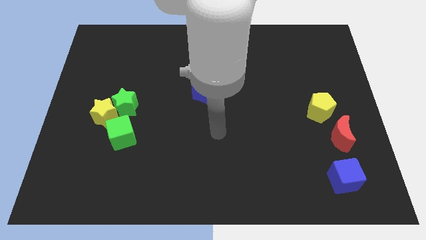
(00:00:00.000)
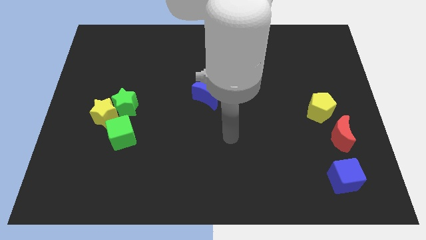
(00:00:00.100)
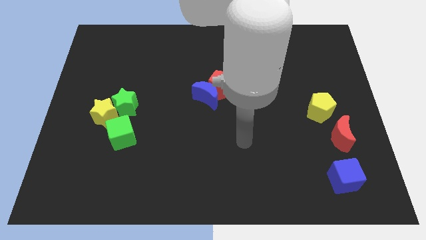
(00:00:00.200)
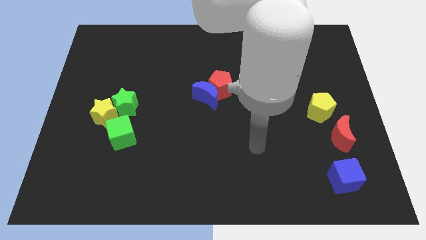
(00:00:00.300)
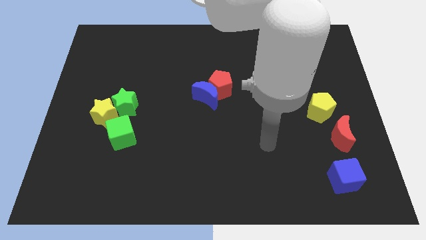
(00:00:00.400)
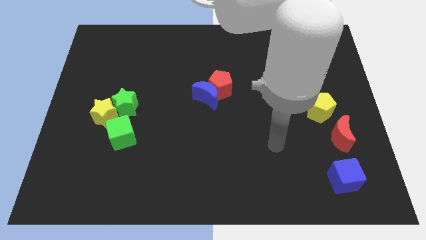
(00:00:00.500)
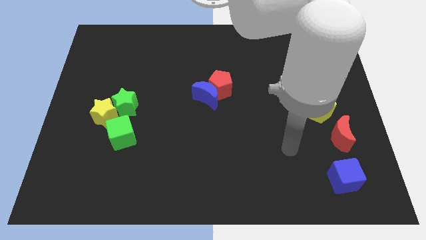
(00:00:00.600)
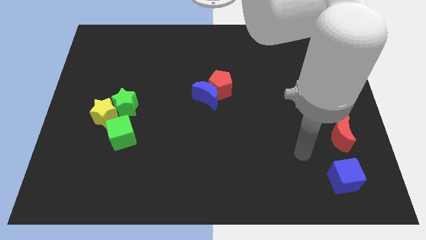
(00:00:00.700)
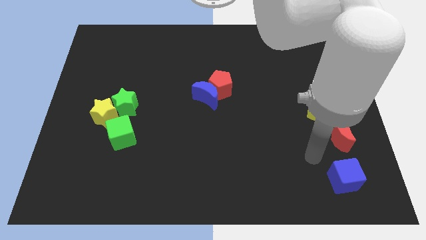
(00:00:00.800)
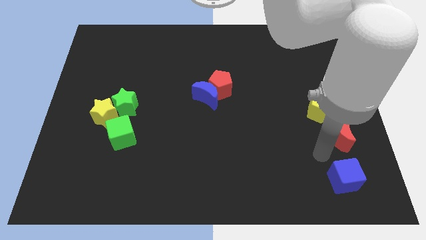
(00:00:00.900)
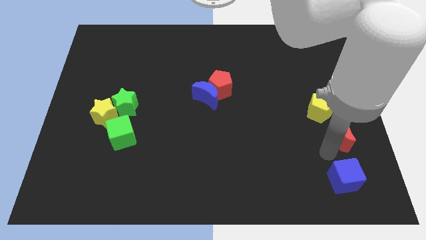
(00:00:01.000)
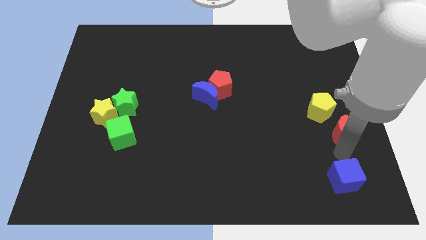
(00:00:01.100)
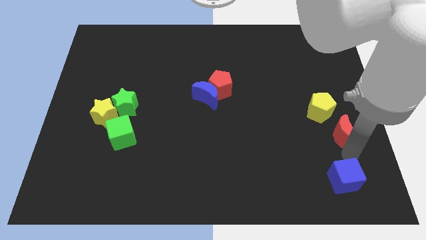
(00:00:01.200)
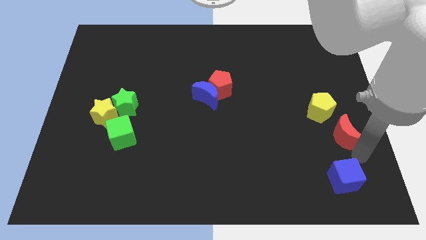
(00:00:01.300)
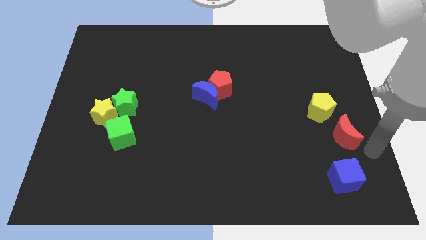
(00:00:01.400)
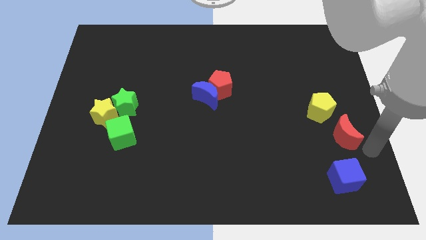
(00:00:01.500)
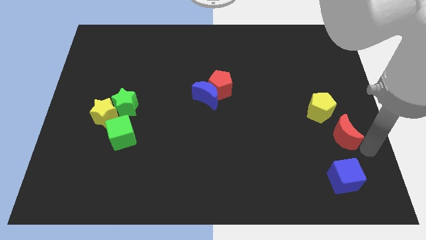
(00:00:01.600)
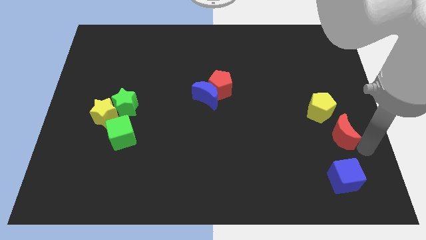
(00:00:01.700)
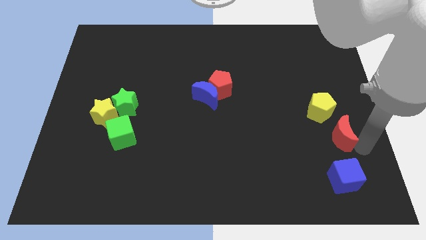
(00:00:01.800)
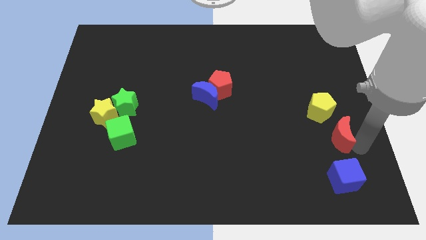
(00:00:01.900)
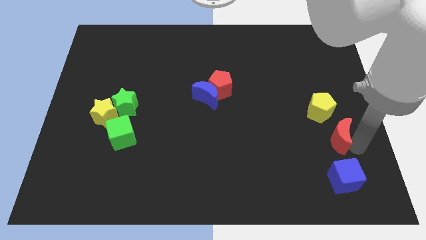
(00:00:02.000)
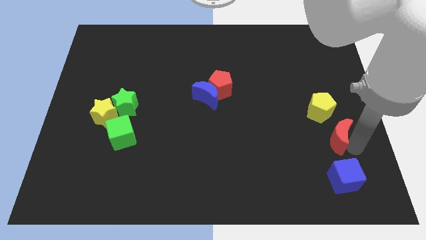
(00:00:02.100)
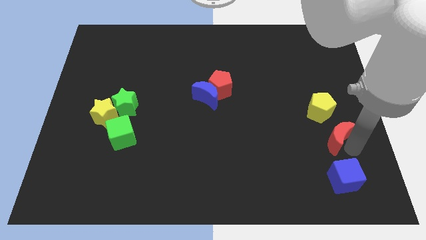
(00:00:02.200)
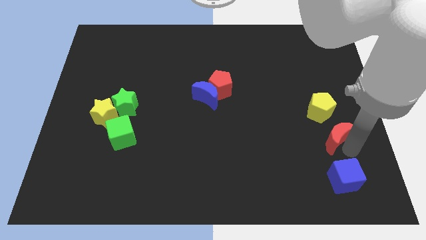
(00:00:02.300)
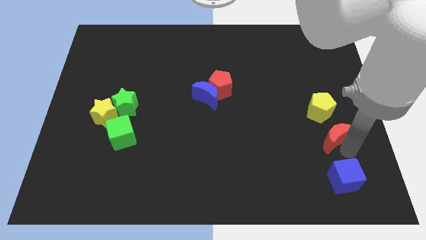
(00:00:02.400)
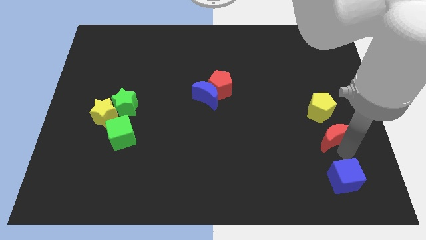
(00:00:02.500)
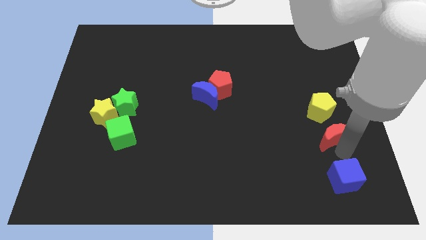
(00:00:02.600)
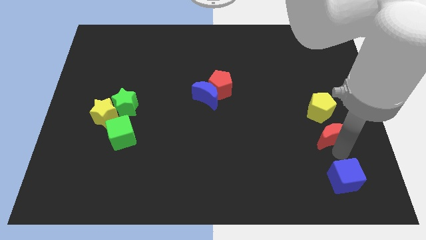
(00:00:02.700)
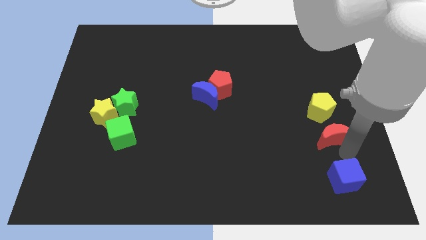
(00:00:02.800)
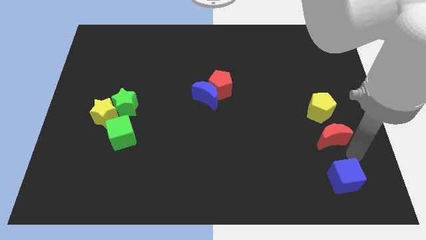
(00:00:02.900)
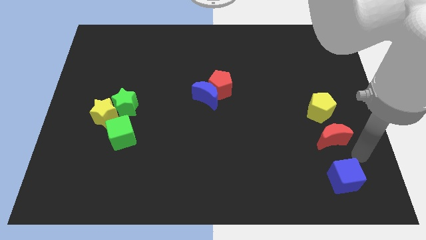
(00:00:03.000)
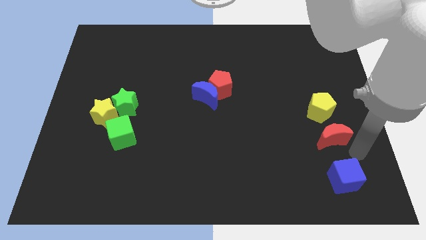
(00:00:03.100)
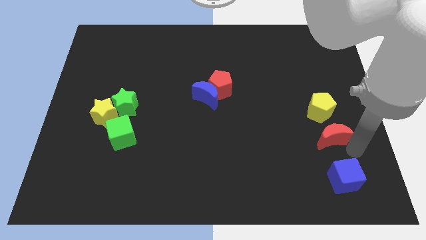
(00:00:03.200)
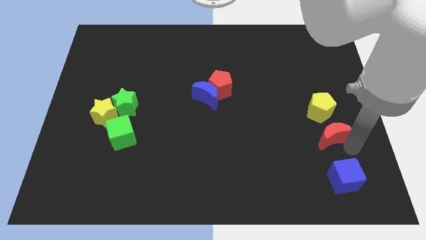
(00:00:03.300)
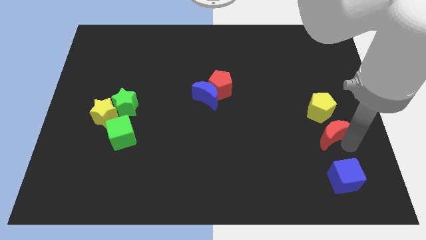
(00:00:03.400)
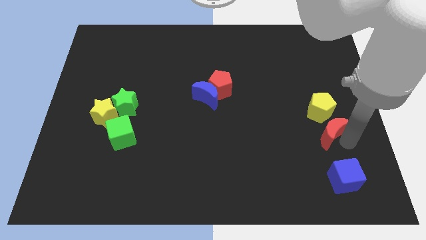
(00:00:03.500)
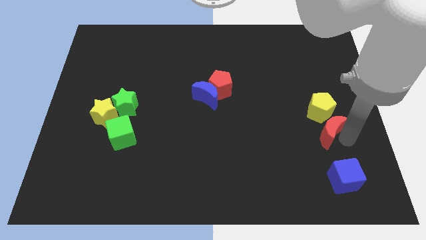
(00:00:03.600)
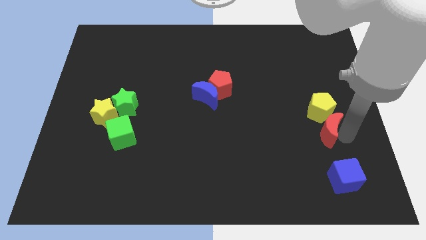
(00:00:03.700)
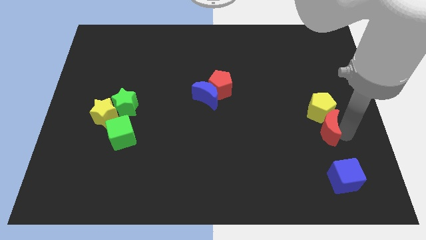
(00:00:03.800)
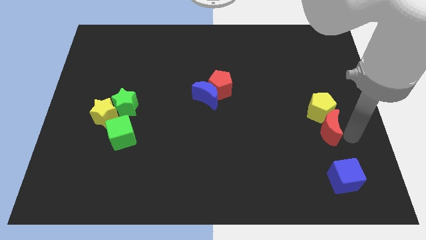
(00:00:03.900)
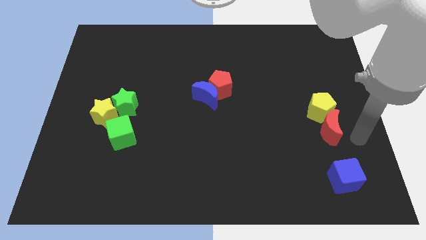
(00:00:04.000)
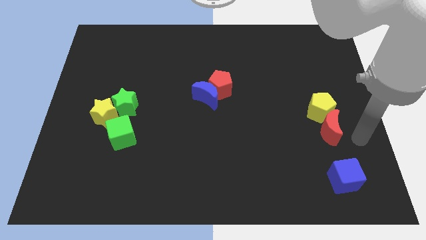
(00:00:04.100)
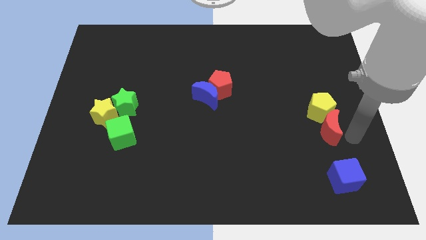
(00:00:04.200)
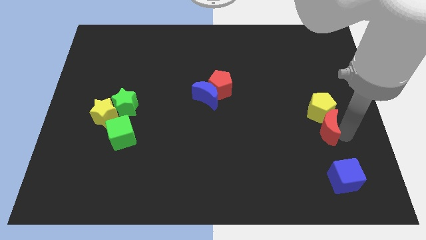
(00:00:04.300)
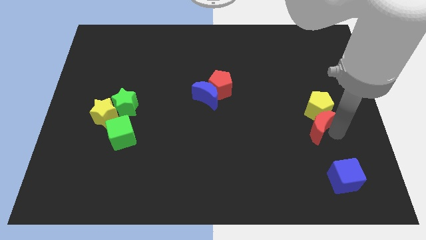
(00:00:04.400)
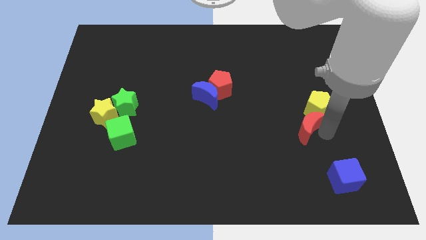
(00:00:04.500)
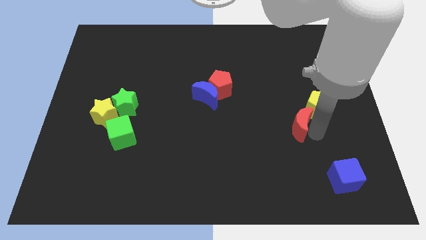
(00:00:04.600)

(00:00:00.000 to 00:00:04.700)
push the red moon somewhat up and to the left

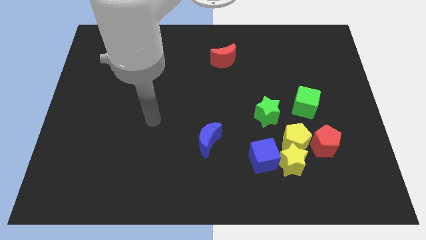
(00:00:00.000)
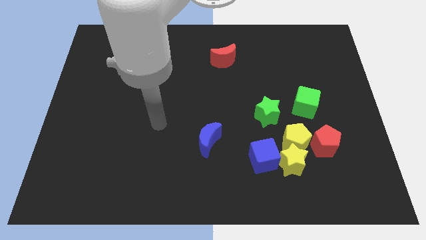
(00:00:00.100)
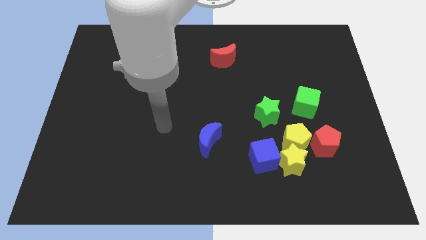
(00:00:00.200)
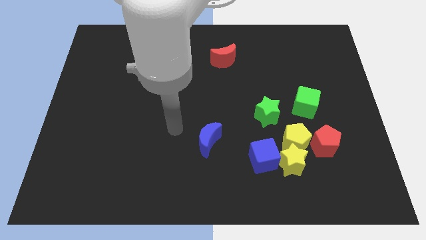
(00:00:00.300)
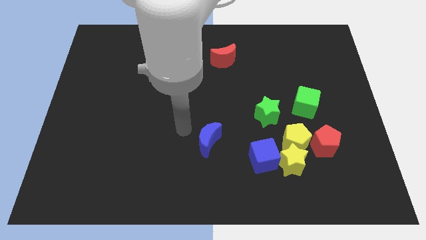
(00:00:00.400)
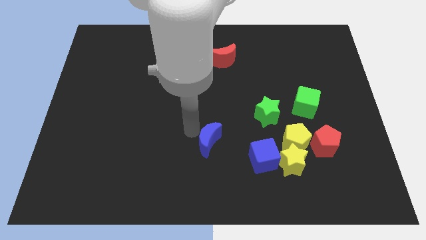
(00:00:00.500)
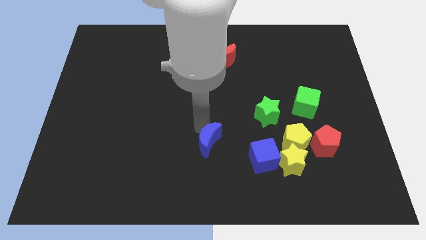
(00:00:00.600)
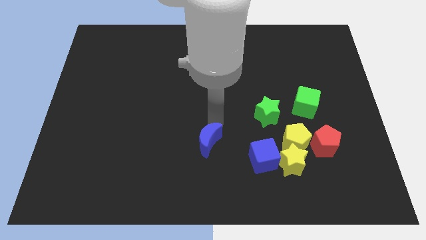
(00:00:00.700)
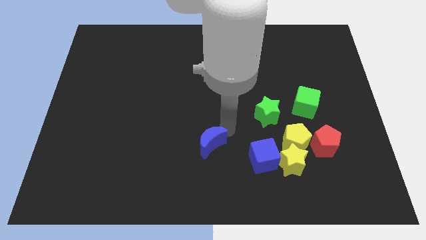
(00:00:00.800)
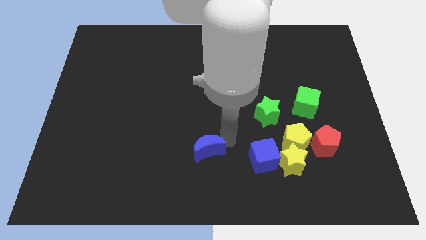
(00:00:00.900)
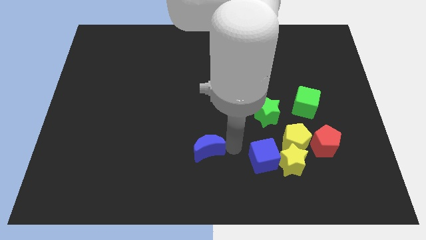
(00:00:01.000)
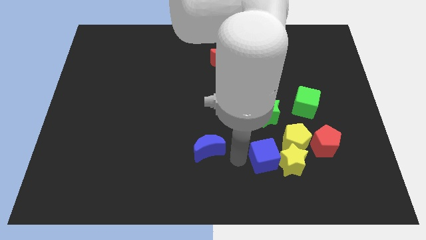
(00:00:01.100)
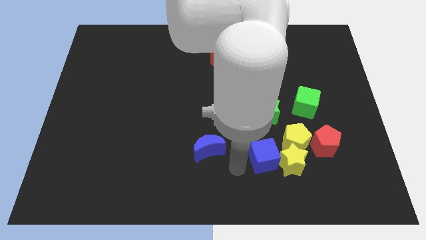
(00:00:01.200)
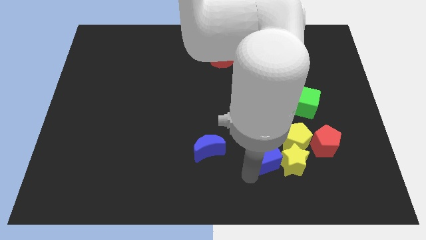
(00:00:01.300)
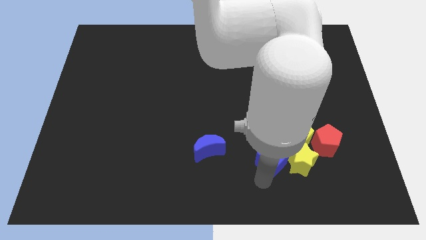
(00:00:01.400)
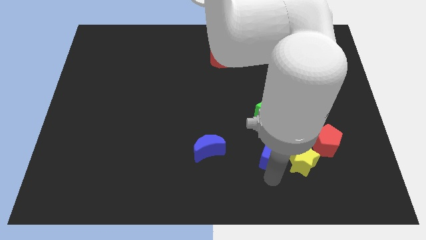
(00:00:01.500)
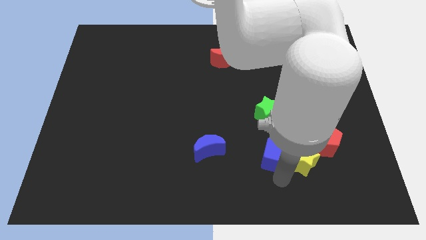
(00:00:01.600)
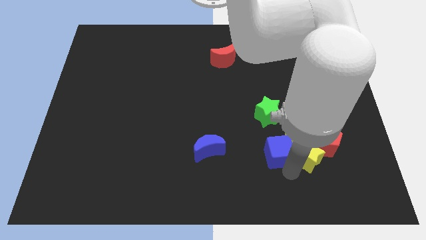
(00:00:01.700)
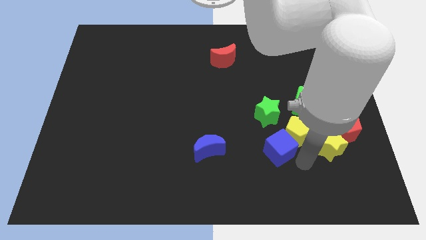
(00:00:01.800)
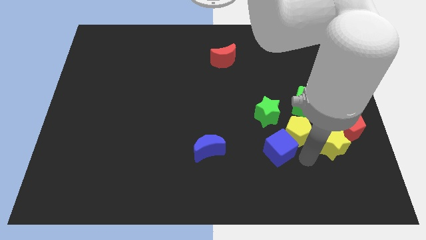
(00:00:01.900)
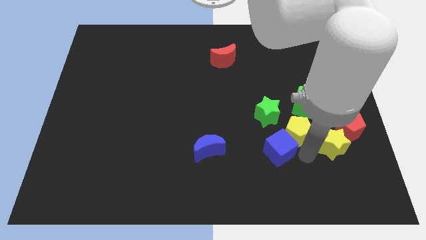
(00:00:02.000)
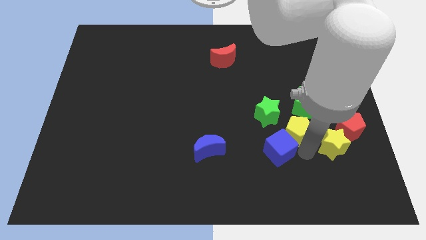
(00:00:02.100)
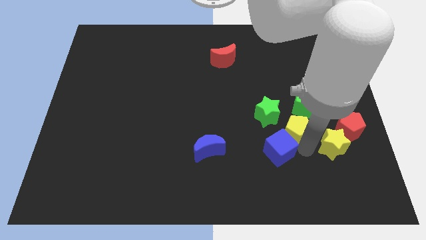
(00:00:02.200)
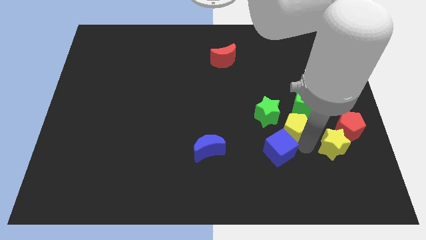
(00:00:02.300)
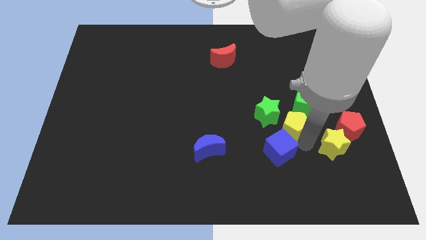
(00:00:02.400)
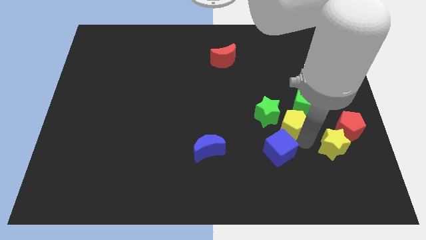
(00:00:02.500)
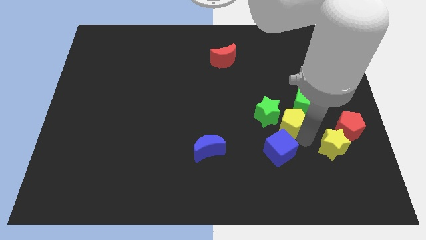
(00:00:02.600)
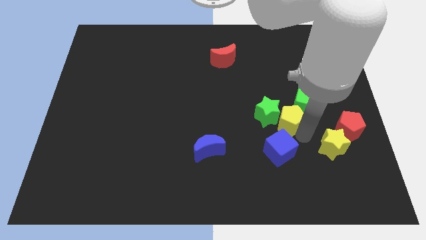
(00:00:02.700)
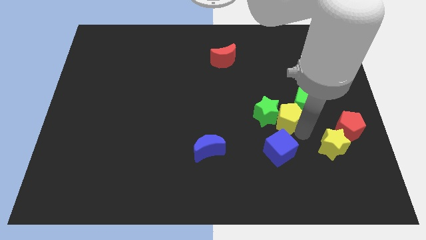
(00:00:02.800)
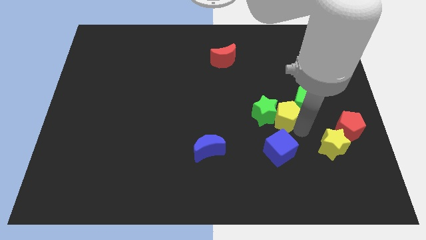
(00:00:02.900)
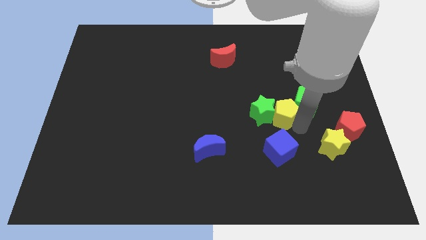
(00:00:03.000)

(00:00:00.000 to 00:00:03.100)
move the yellow pentagon a little bit up
